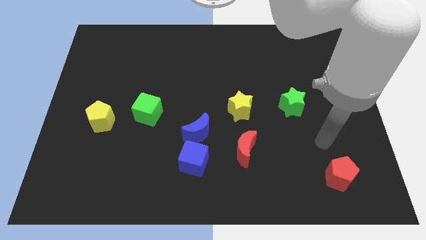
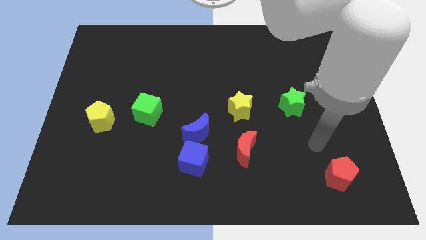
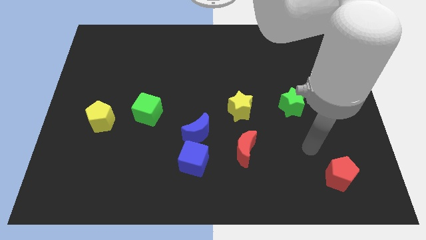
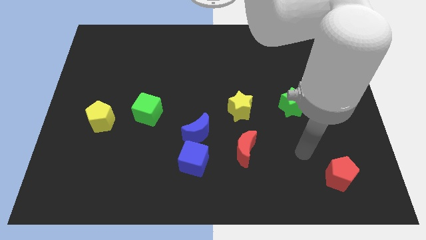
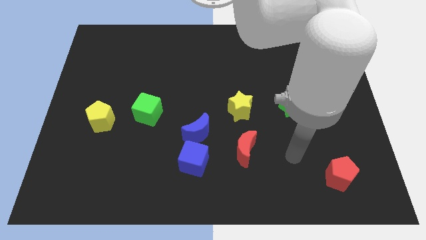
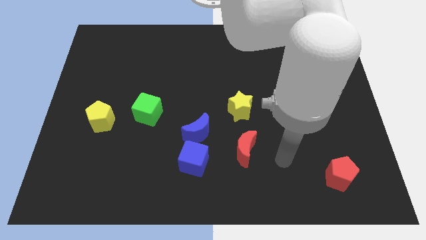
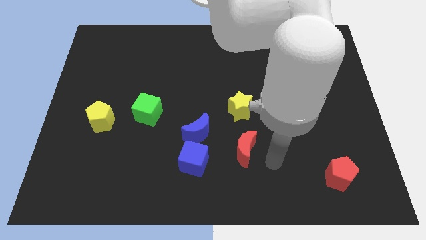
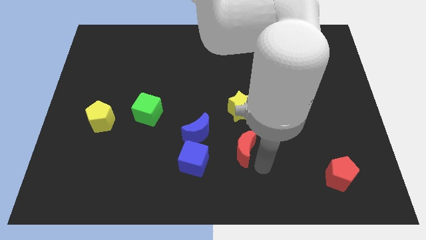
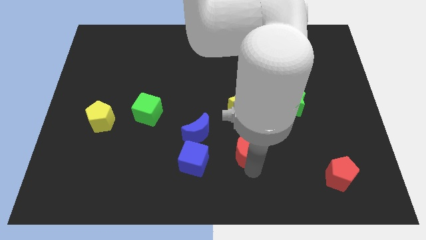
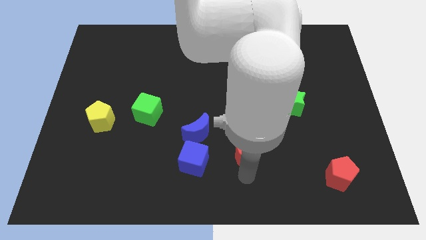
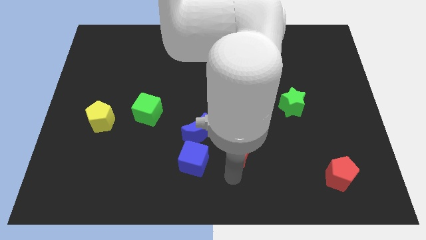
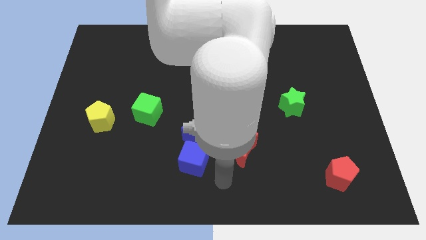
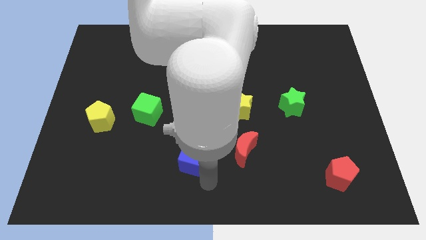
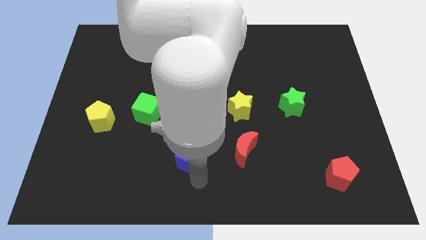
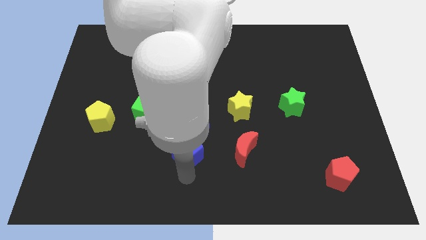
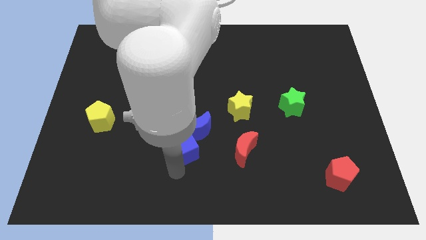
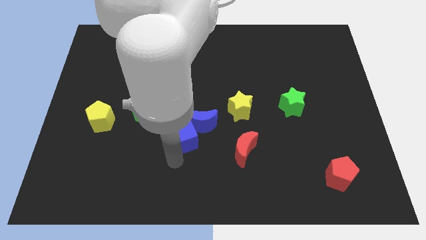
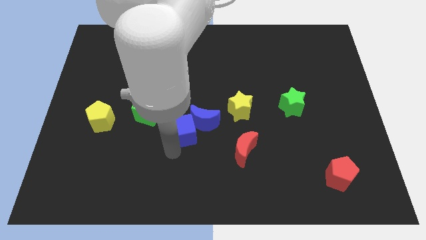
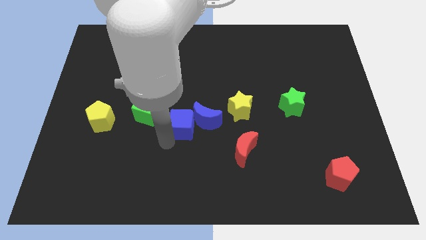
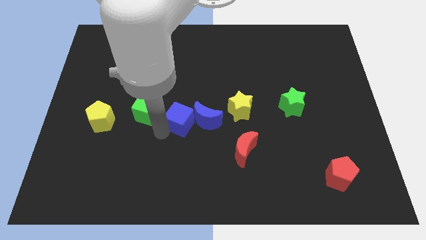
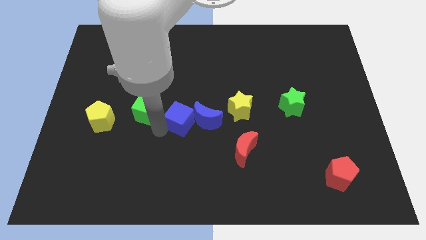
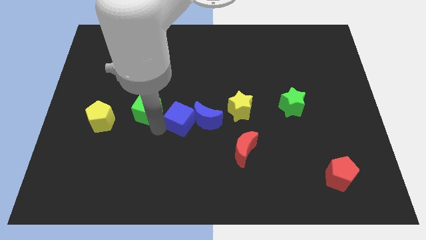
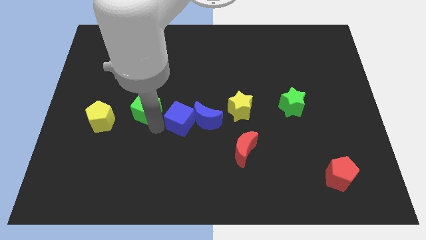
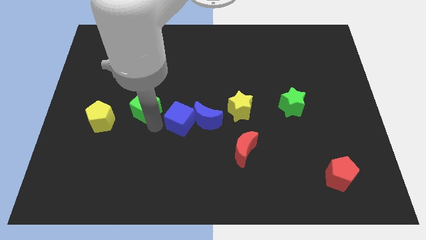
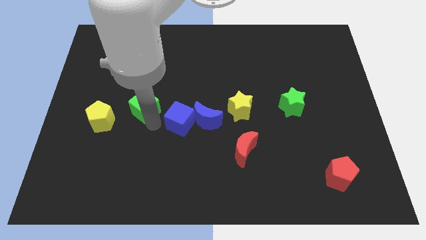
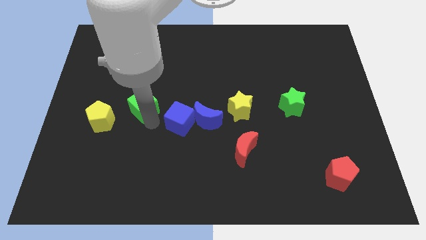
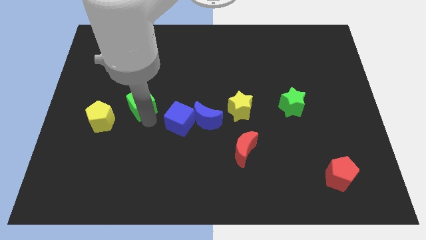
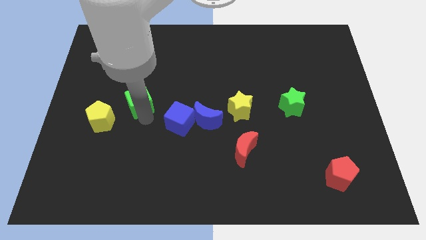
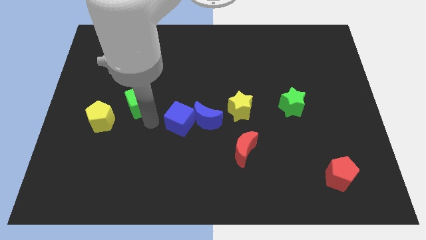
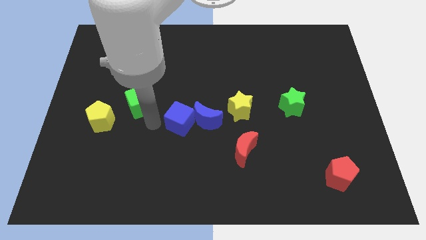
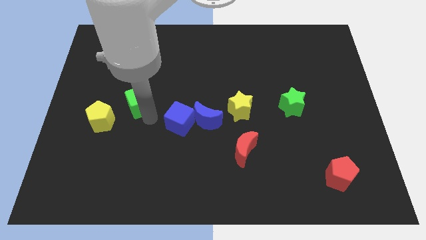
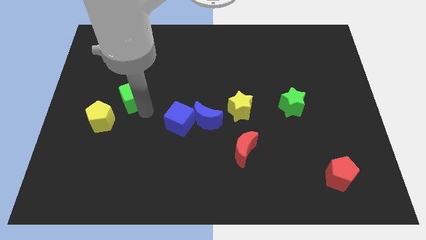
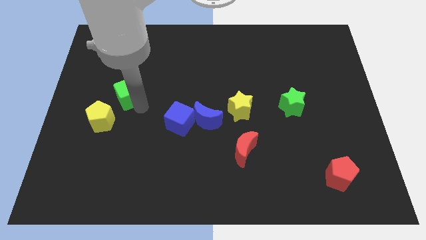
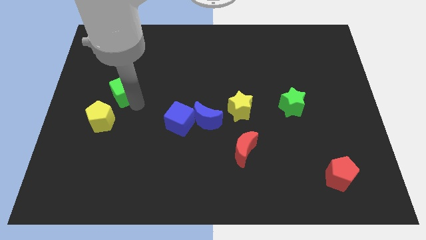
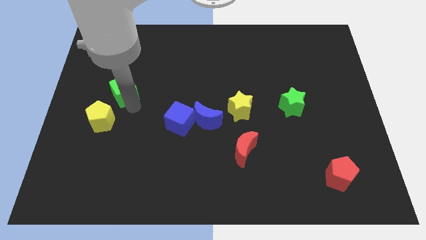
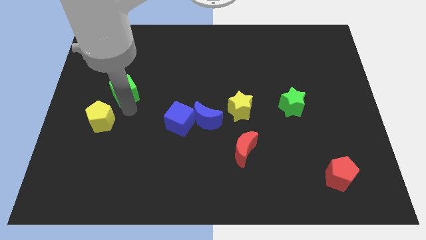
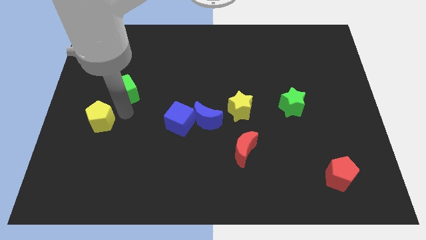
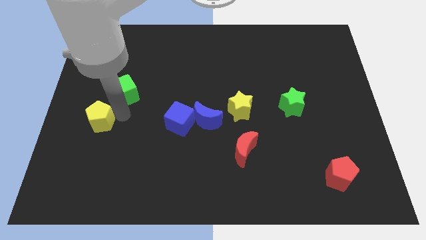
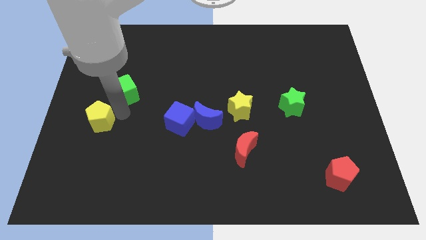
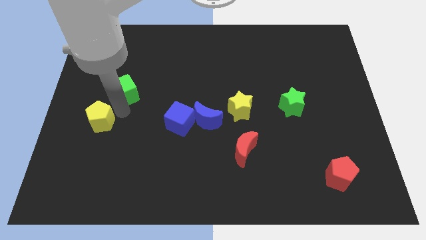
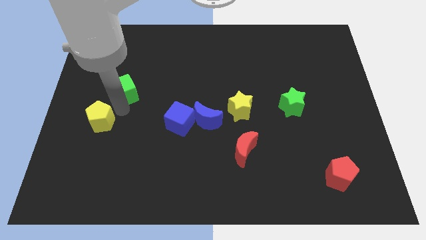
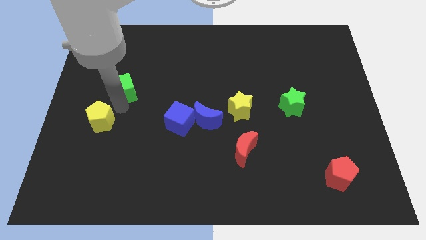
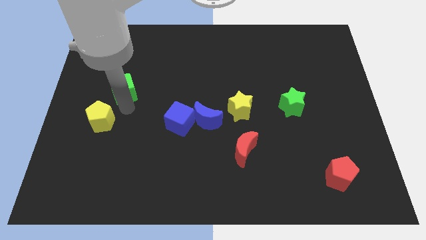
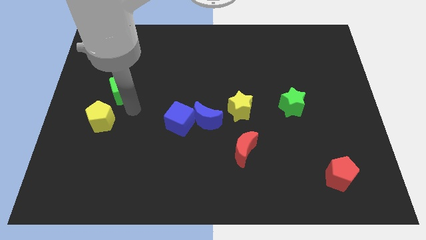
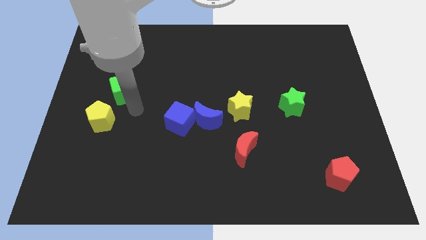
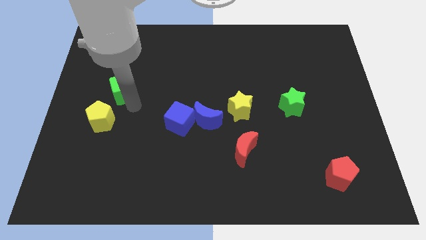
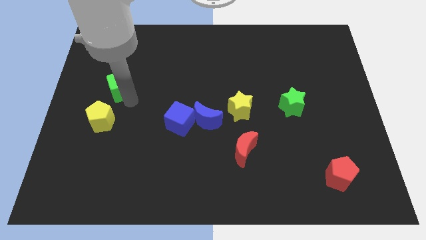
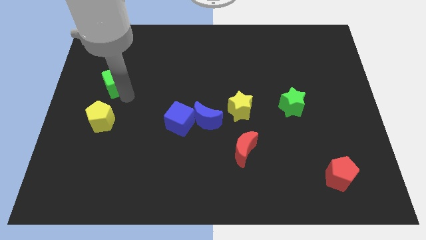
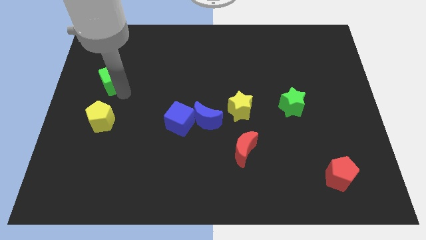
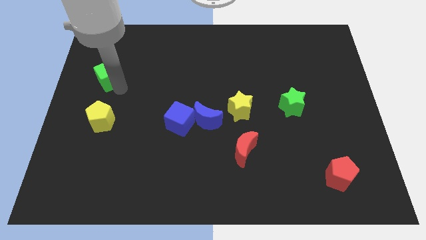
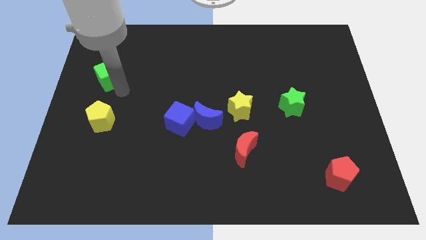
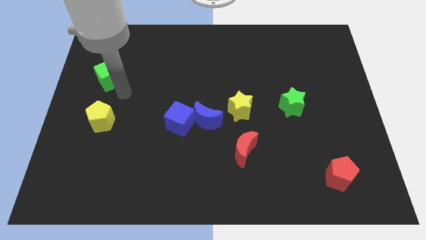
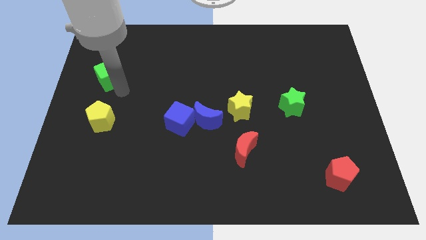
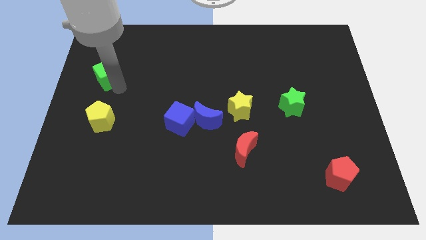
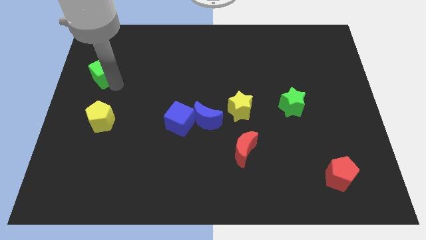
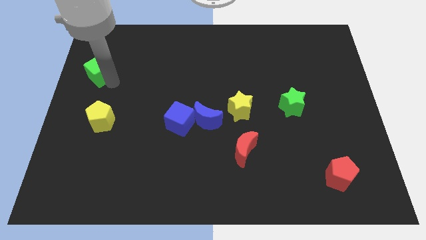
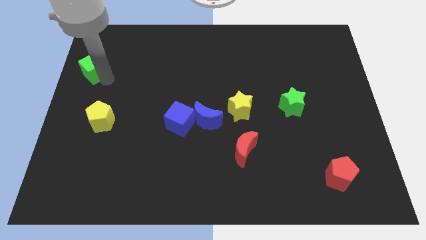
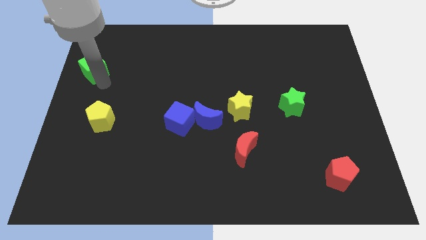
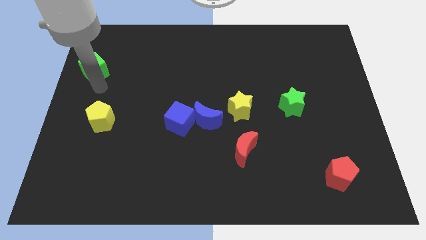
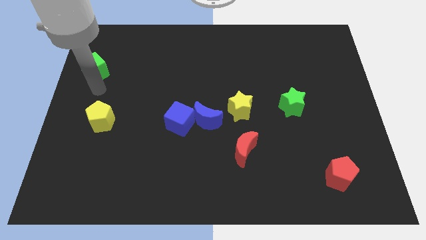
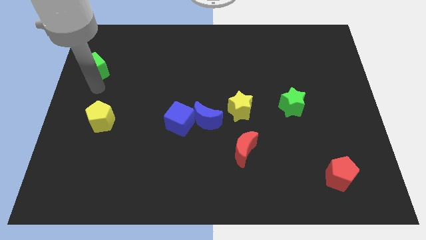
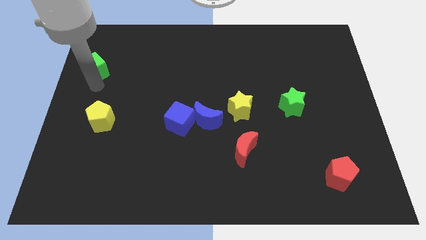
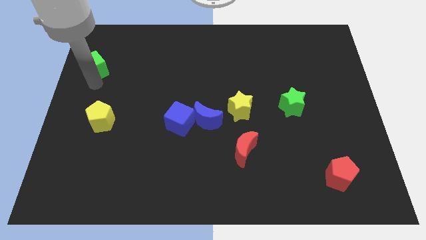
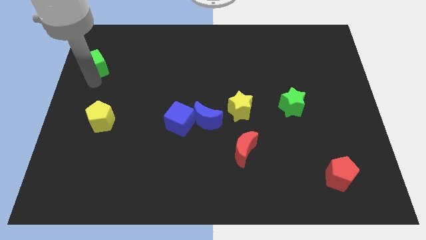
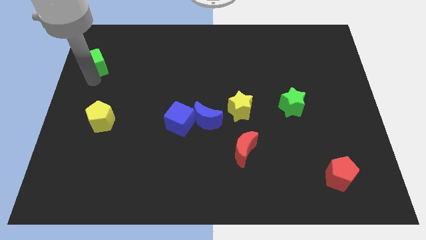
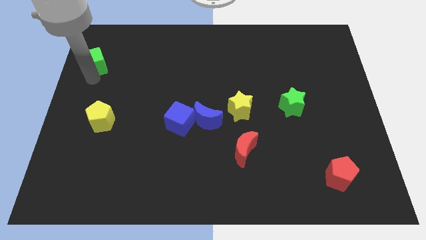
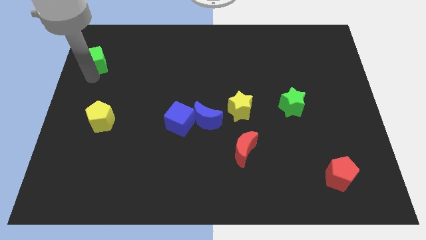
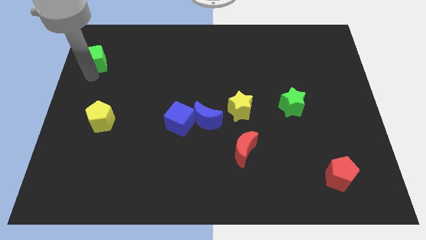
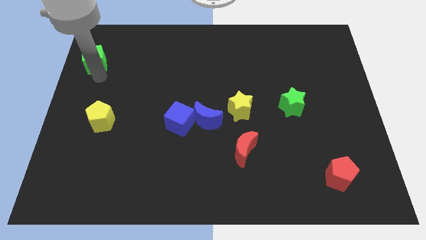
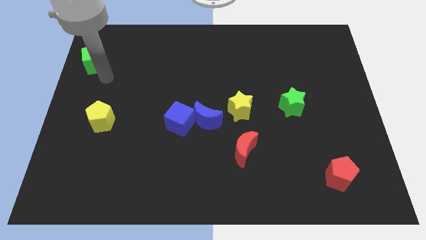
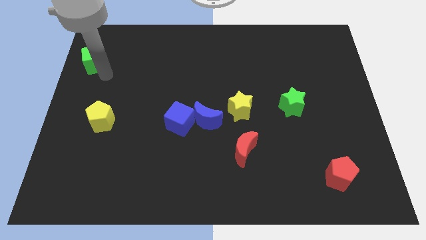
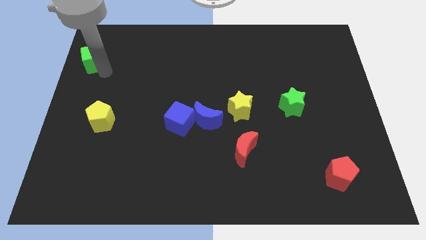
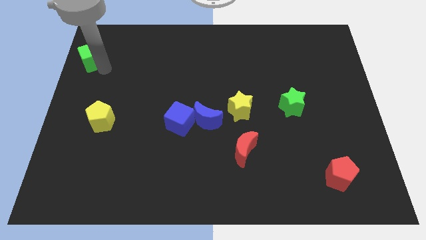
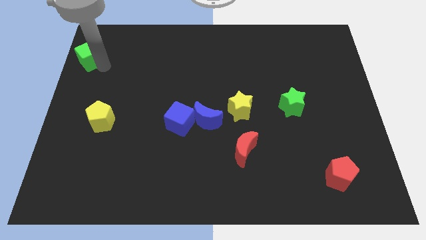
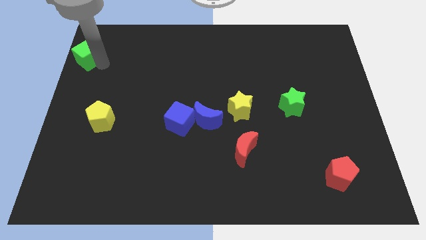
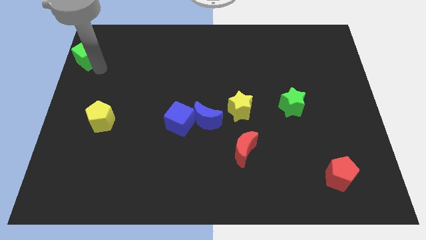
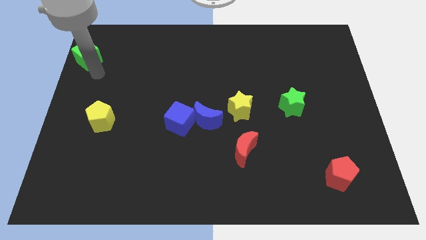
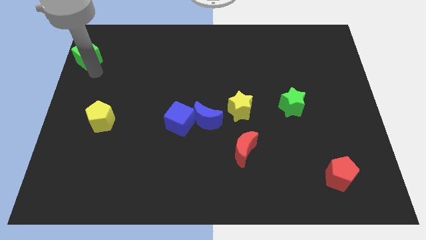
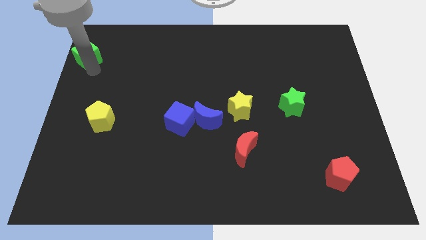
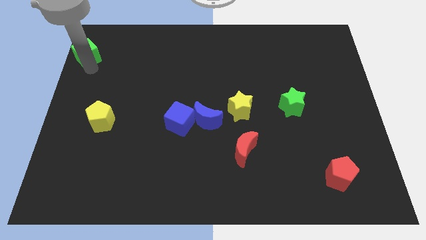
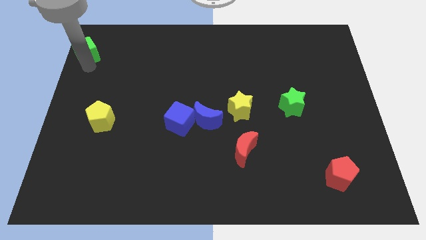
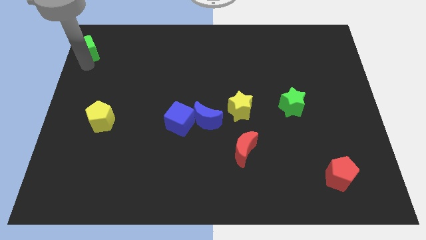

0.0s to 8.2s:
move the green cube to the top left corner
